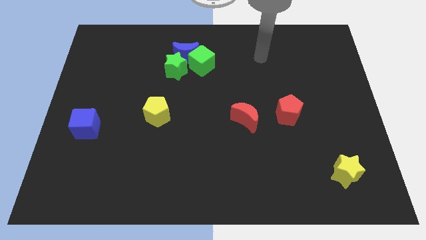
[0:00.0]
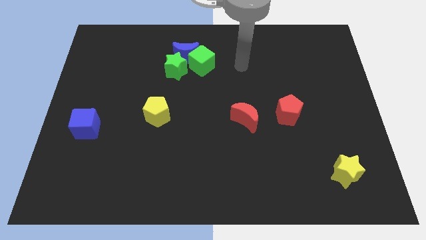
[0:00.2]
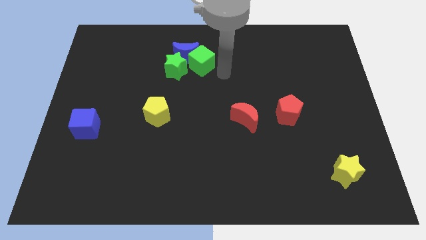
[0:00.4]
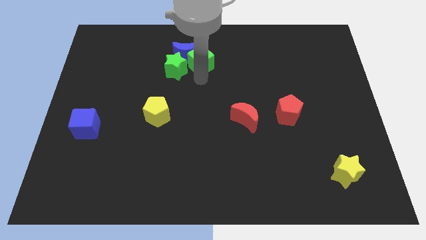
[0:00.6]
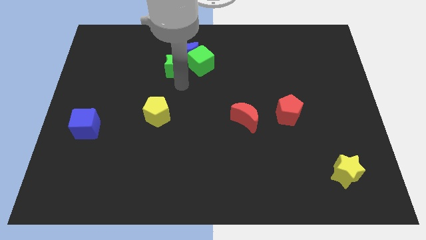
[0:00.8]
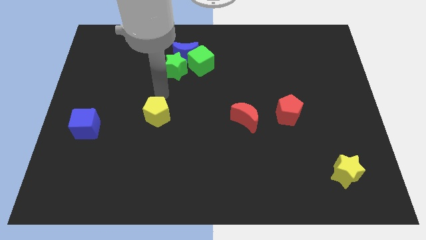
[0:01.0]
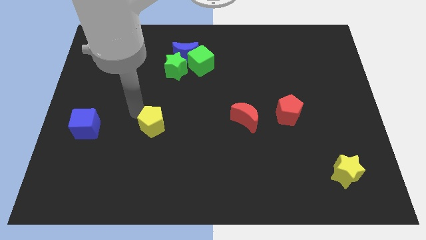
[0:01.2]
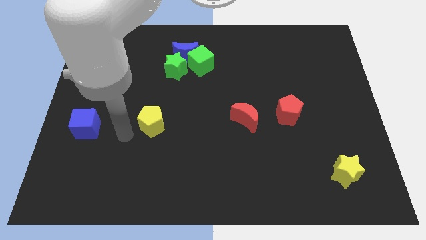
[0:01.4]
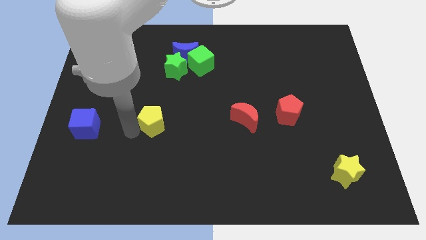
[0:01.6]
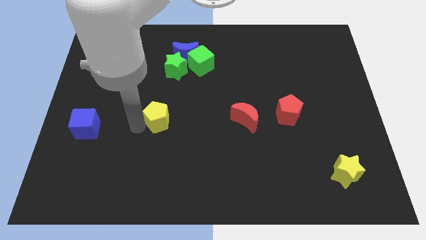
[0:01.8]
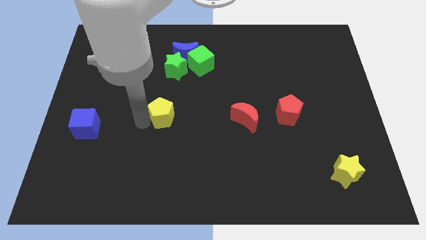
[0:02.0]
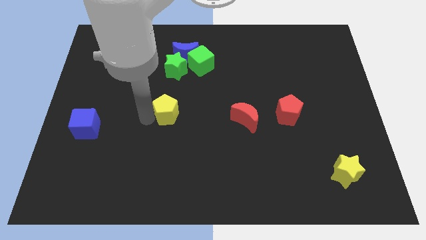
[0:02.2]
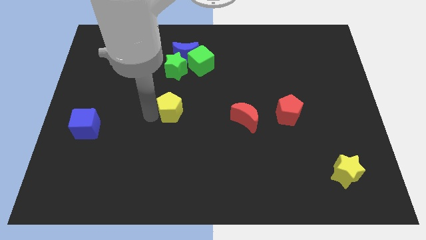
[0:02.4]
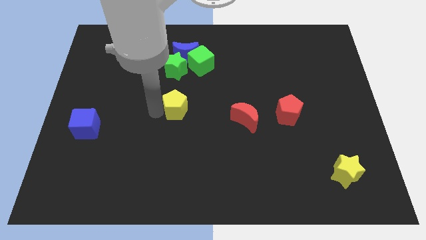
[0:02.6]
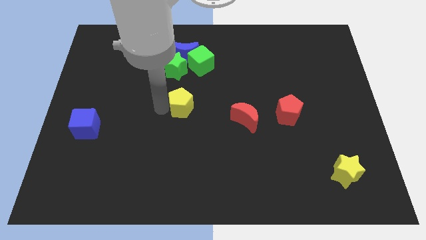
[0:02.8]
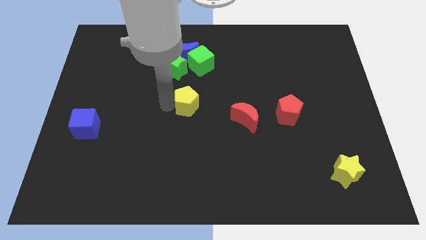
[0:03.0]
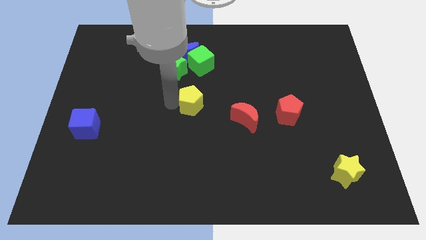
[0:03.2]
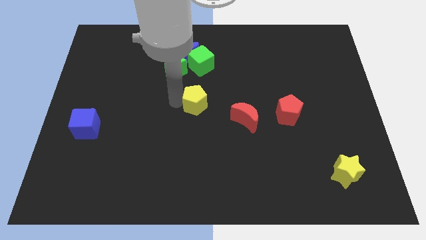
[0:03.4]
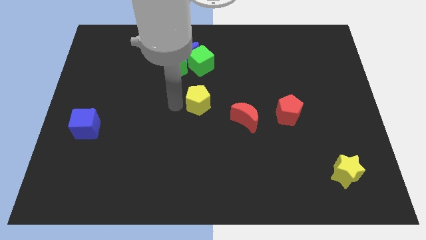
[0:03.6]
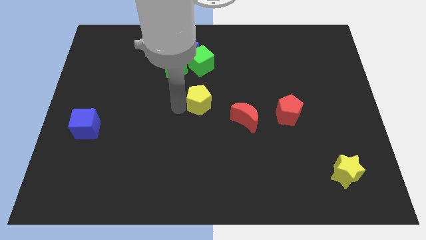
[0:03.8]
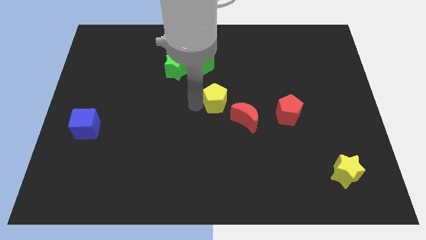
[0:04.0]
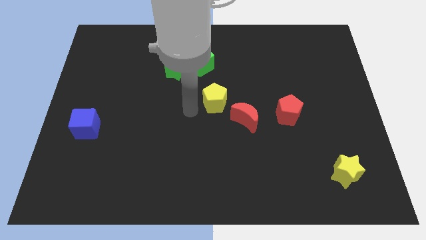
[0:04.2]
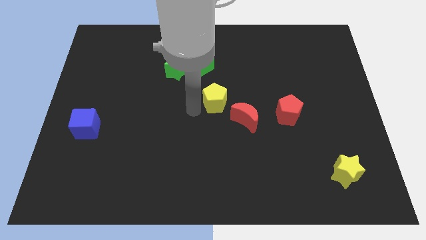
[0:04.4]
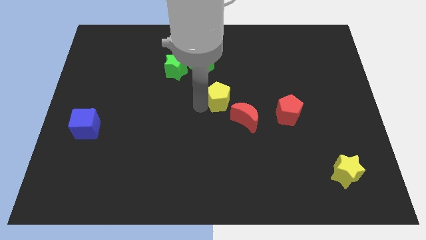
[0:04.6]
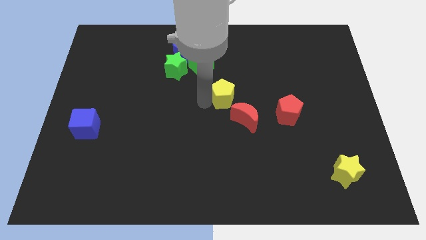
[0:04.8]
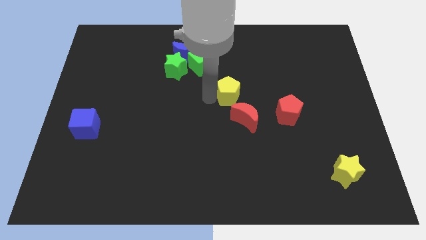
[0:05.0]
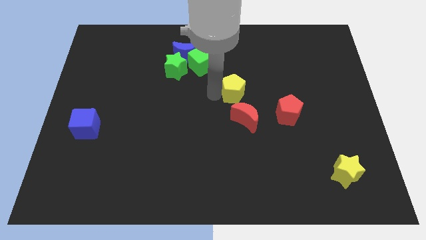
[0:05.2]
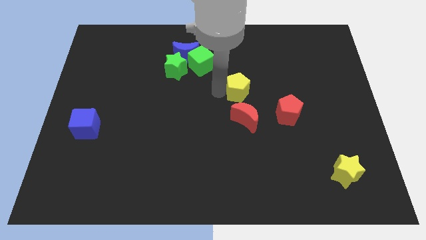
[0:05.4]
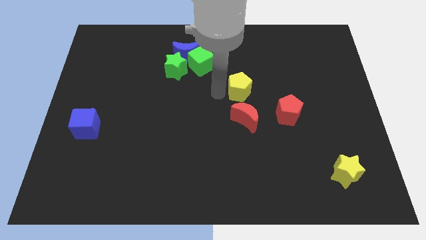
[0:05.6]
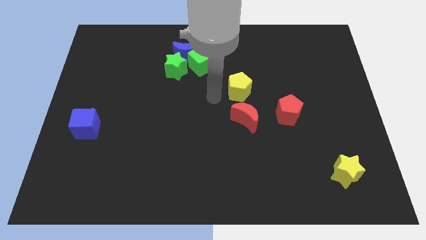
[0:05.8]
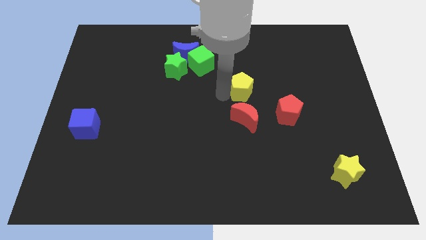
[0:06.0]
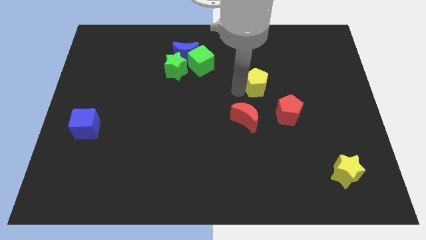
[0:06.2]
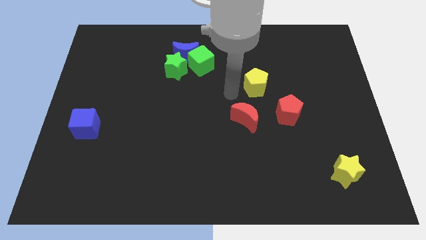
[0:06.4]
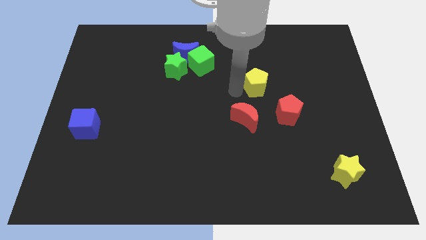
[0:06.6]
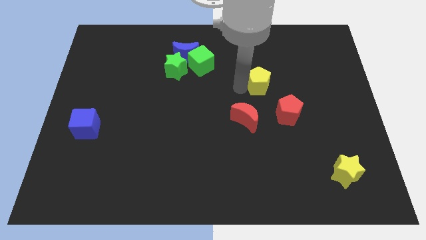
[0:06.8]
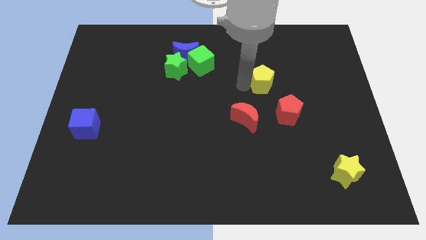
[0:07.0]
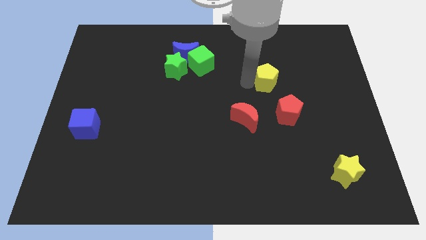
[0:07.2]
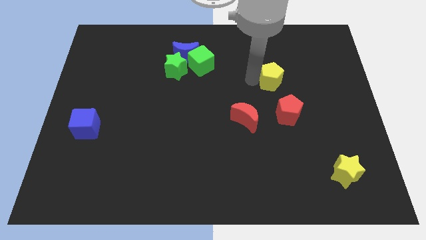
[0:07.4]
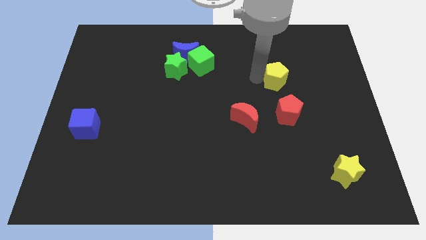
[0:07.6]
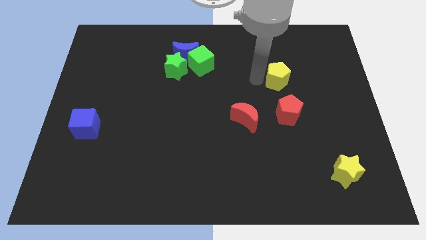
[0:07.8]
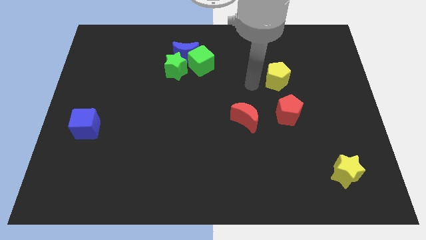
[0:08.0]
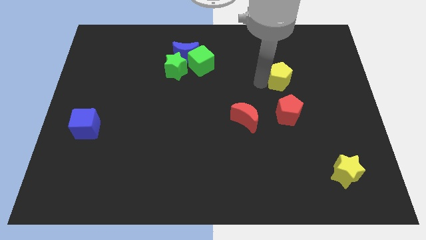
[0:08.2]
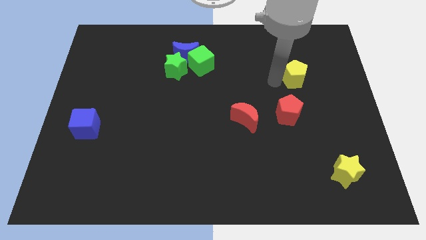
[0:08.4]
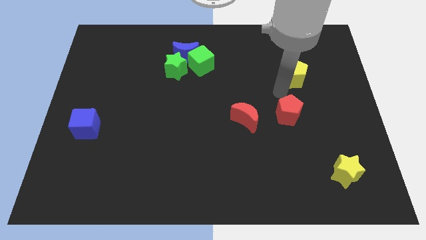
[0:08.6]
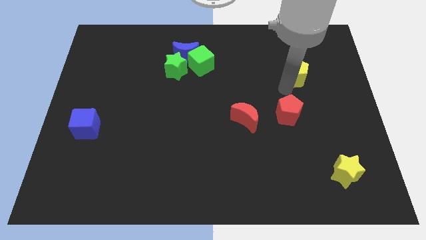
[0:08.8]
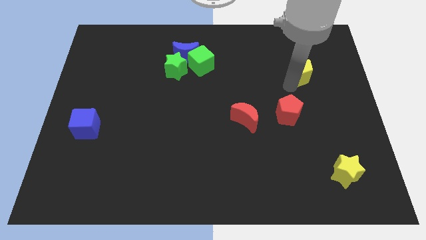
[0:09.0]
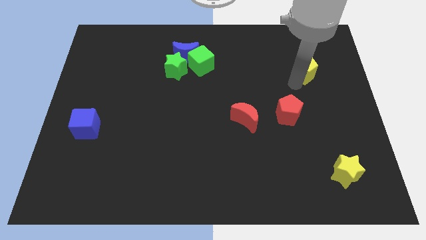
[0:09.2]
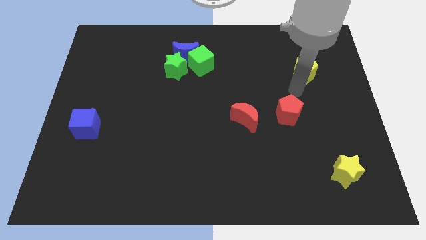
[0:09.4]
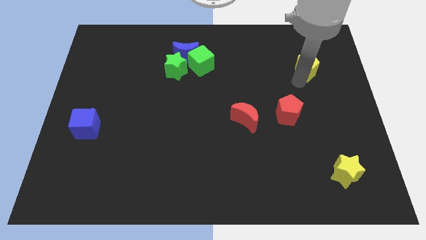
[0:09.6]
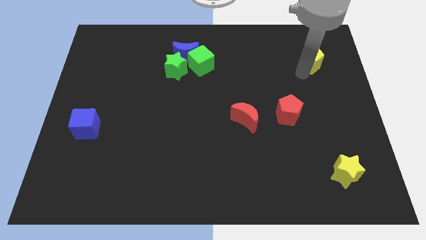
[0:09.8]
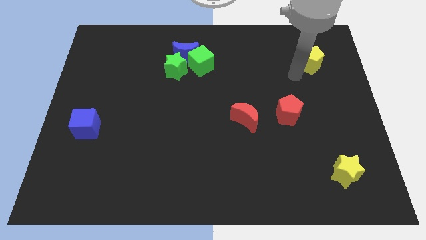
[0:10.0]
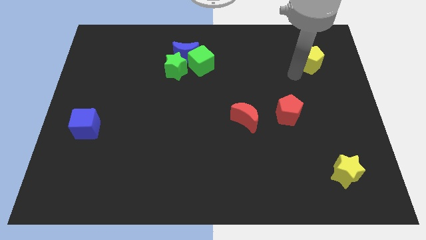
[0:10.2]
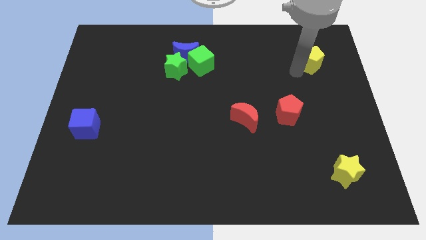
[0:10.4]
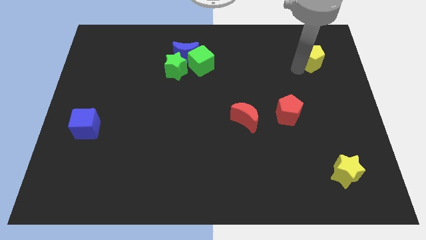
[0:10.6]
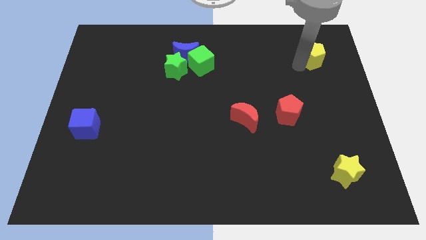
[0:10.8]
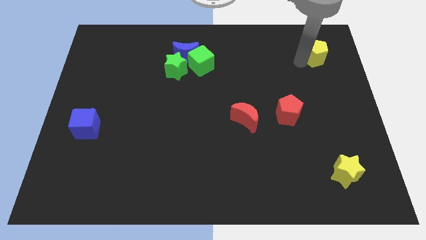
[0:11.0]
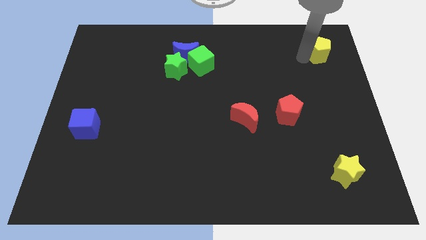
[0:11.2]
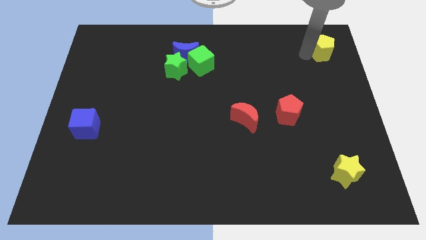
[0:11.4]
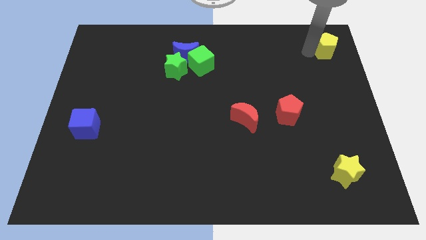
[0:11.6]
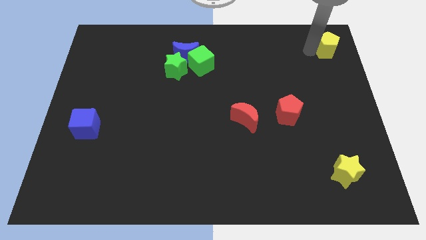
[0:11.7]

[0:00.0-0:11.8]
push the yellow pentagon to the top right

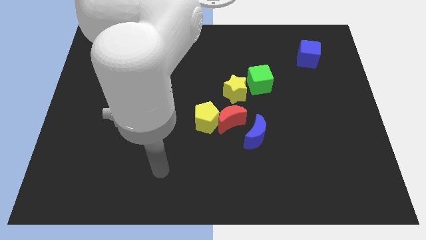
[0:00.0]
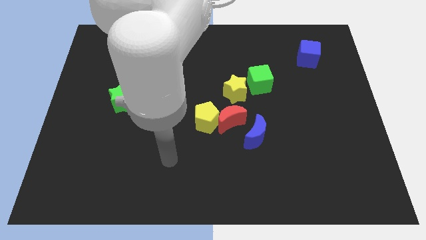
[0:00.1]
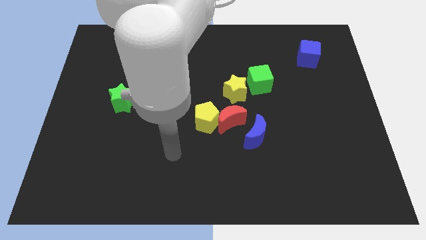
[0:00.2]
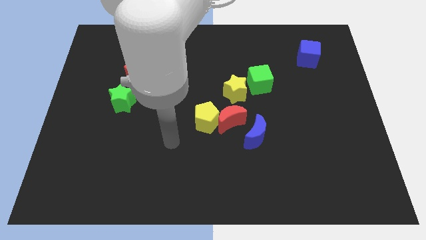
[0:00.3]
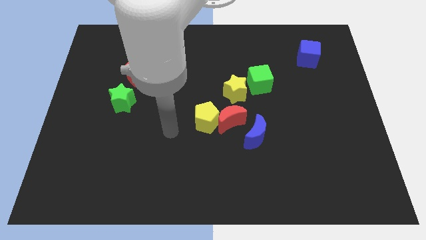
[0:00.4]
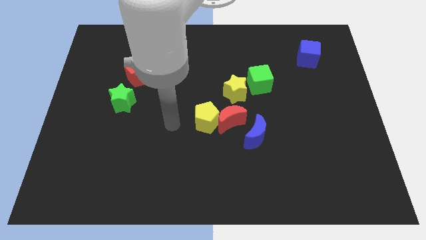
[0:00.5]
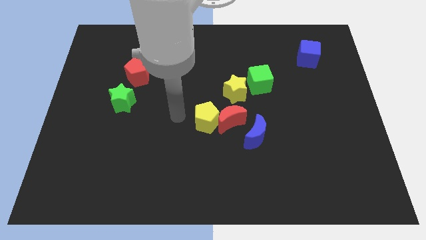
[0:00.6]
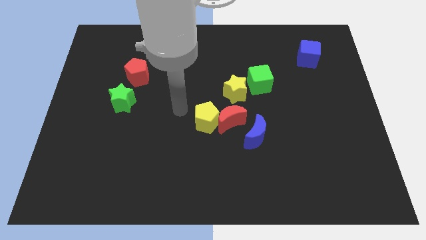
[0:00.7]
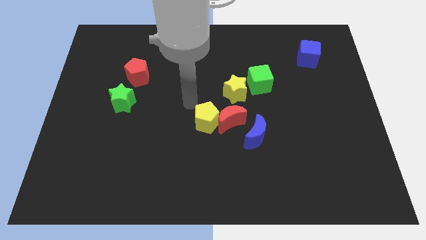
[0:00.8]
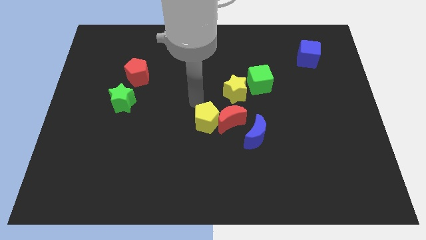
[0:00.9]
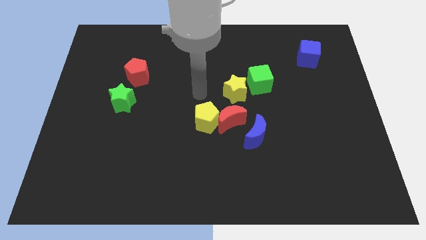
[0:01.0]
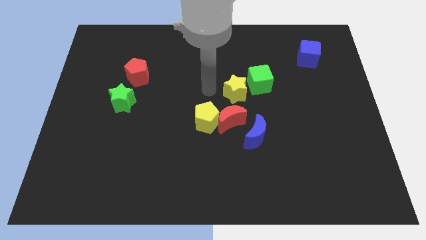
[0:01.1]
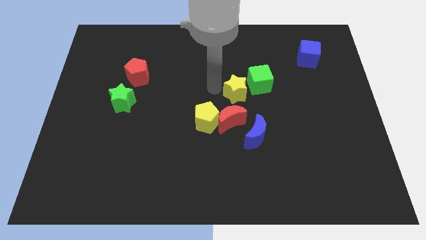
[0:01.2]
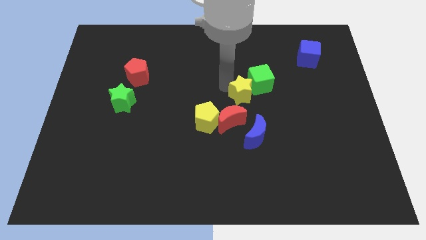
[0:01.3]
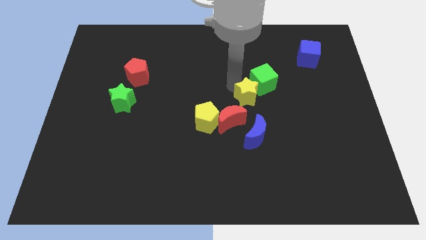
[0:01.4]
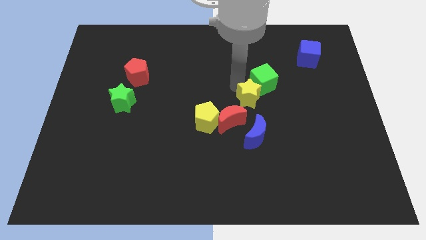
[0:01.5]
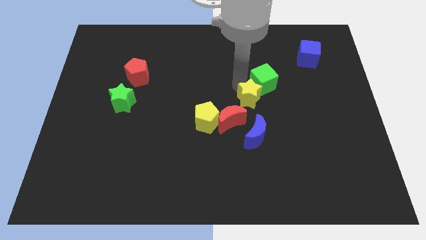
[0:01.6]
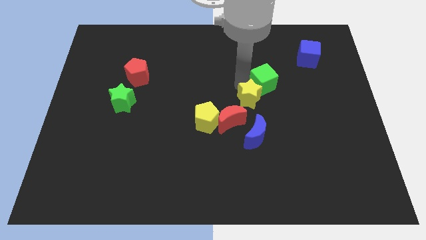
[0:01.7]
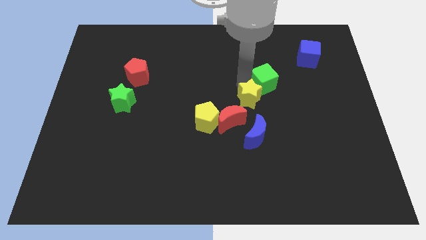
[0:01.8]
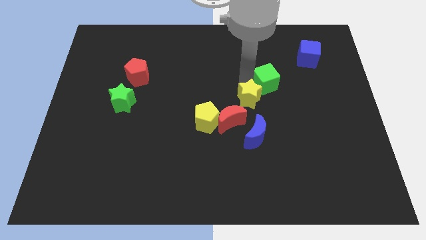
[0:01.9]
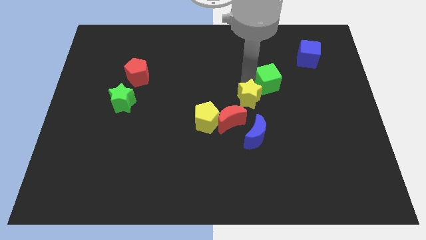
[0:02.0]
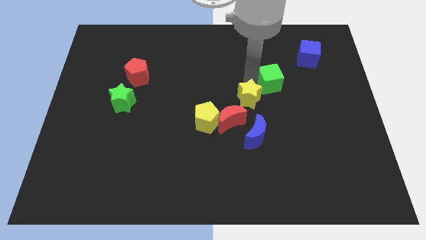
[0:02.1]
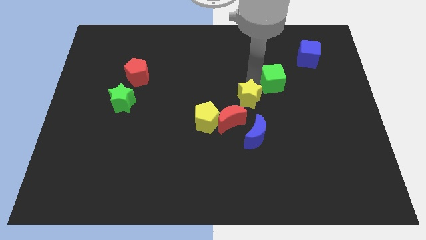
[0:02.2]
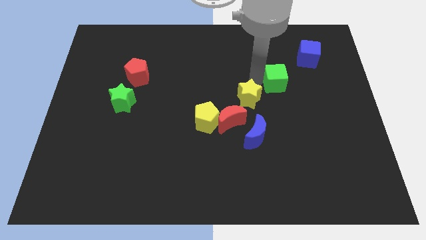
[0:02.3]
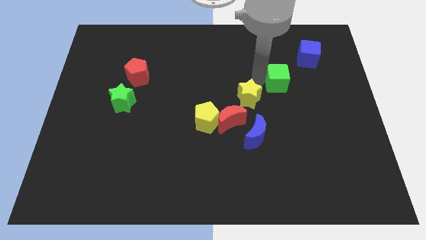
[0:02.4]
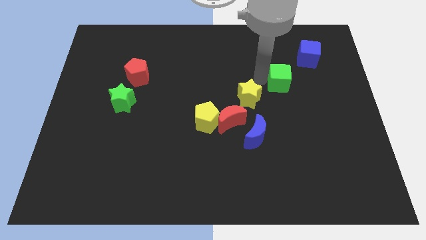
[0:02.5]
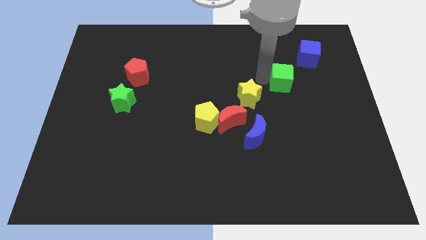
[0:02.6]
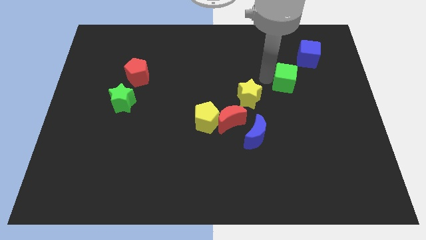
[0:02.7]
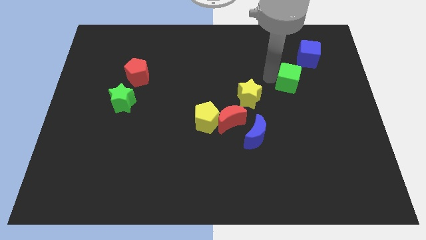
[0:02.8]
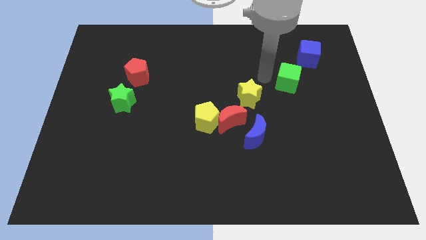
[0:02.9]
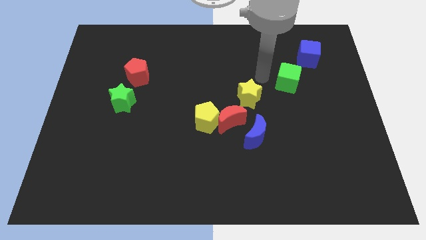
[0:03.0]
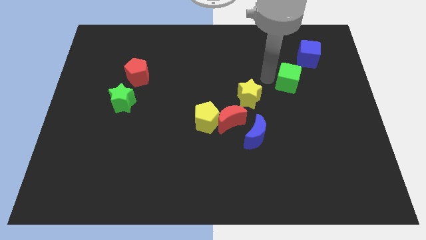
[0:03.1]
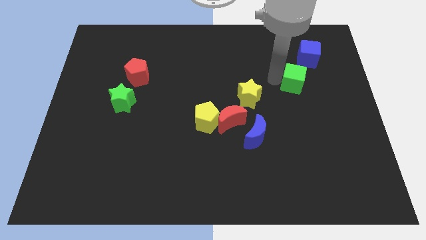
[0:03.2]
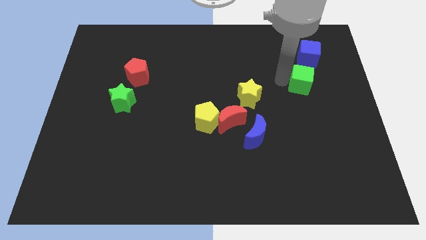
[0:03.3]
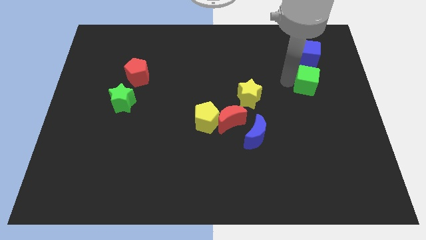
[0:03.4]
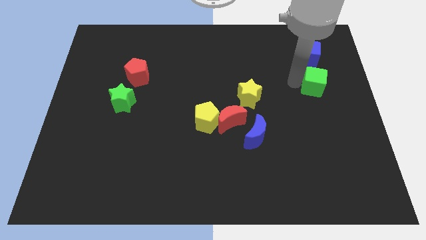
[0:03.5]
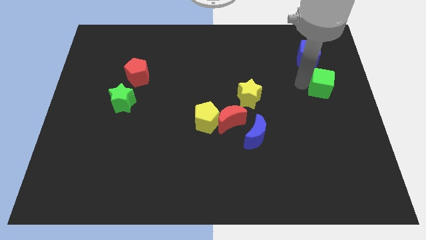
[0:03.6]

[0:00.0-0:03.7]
slide the green cube to the right side
